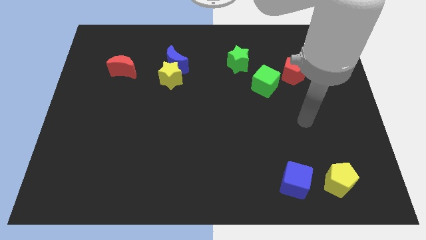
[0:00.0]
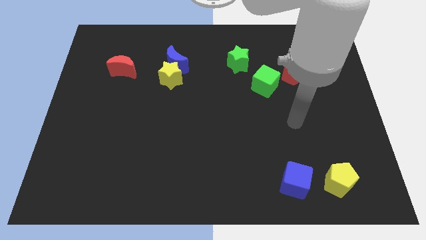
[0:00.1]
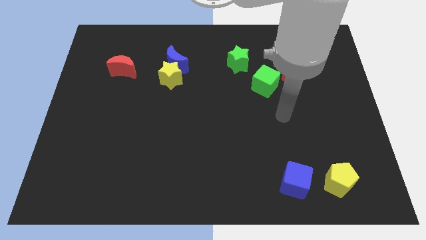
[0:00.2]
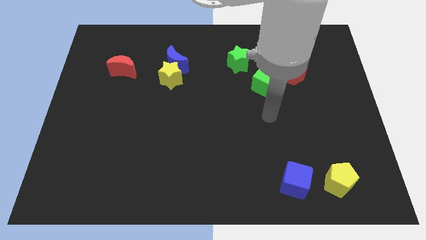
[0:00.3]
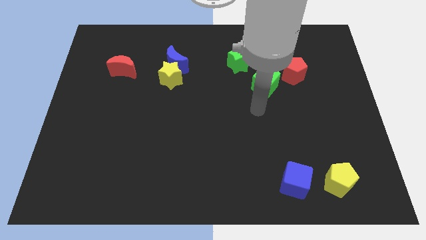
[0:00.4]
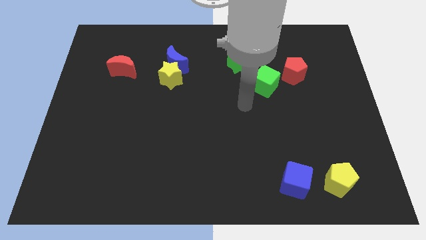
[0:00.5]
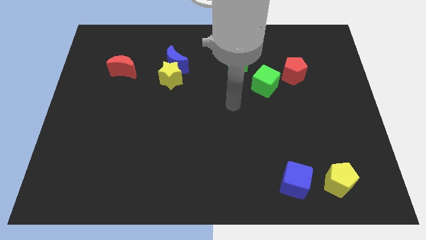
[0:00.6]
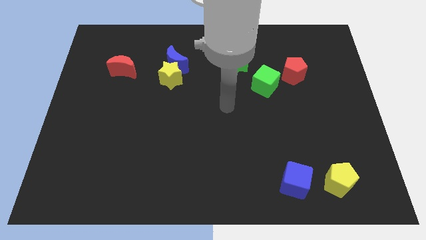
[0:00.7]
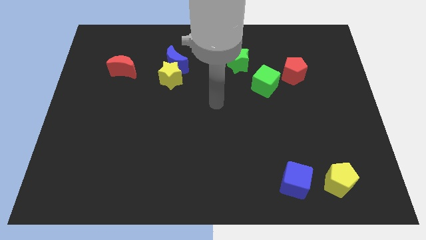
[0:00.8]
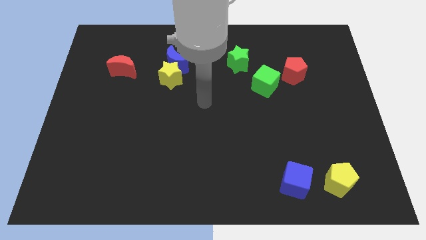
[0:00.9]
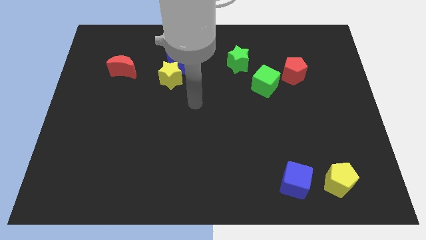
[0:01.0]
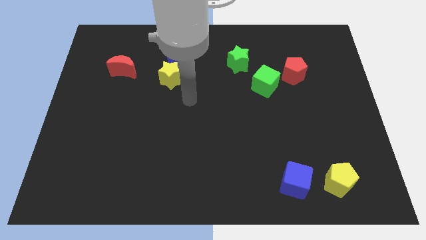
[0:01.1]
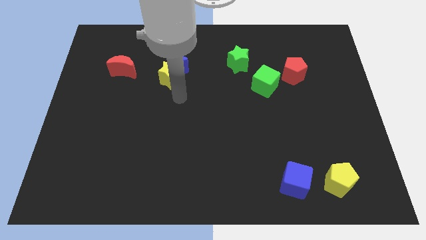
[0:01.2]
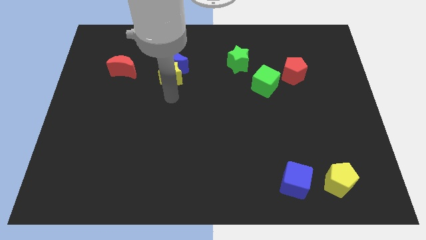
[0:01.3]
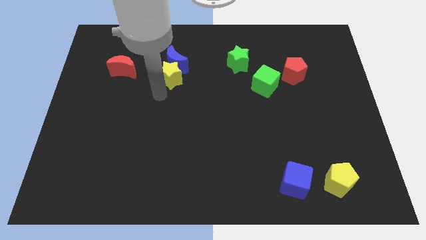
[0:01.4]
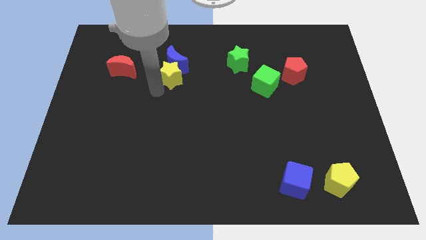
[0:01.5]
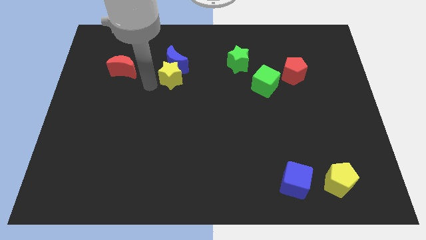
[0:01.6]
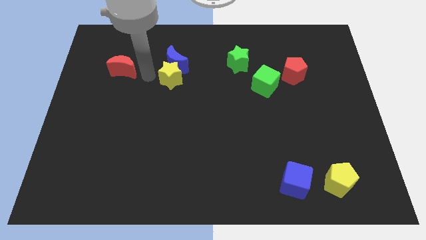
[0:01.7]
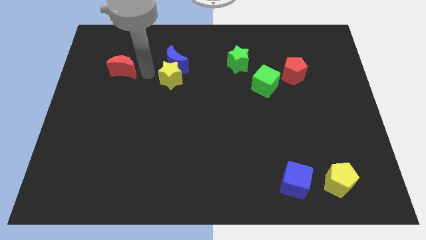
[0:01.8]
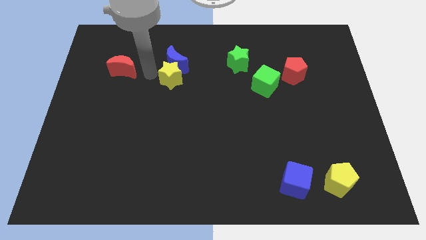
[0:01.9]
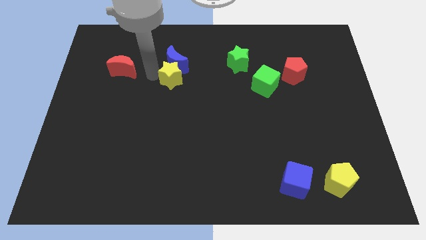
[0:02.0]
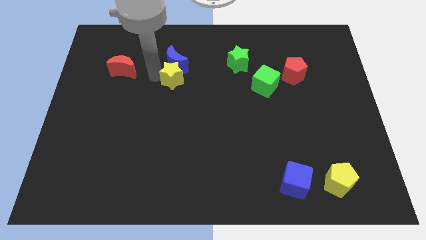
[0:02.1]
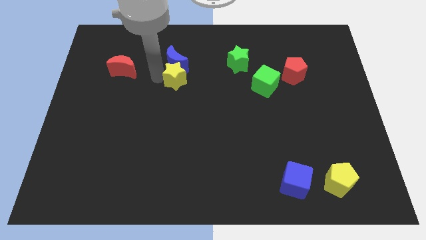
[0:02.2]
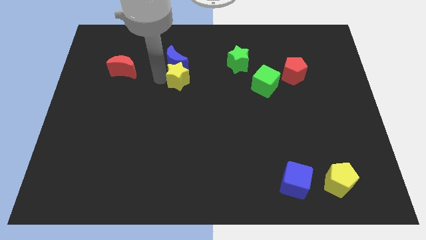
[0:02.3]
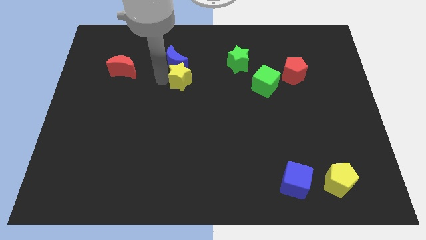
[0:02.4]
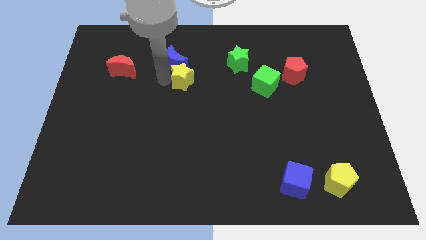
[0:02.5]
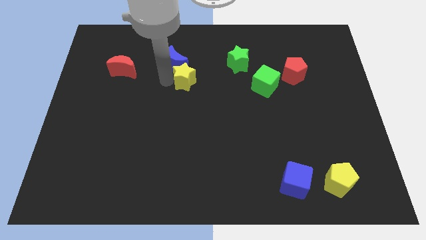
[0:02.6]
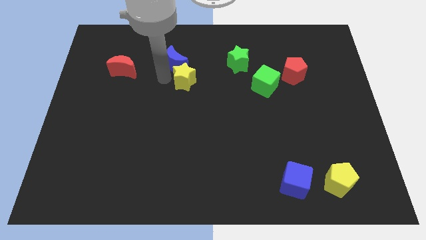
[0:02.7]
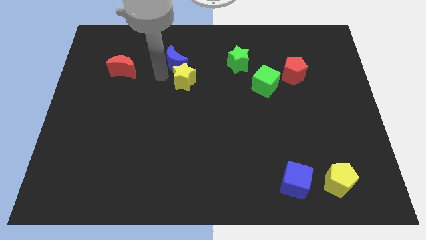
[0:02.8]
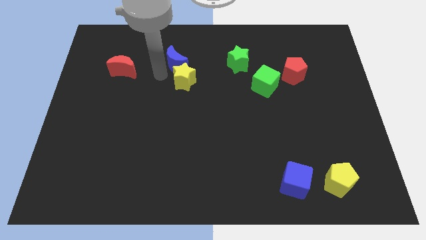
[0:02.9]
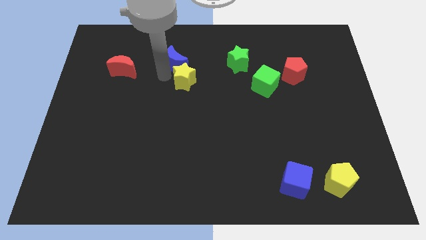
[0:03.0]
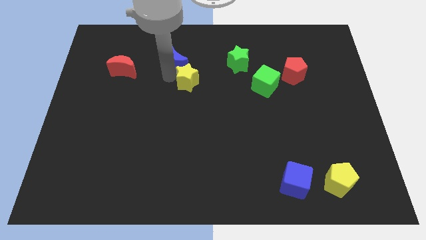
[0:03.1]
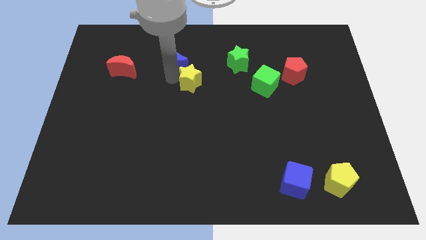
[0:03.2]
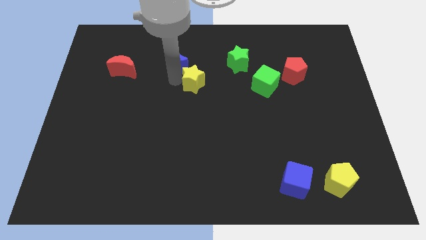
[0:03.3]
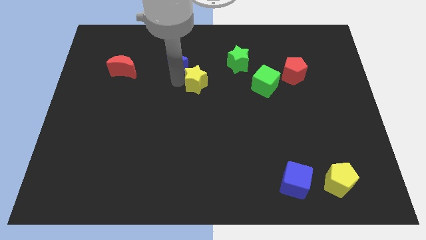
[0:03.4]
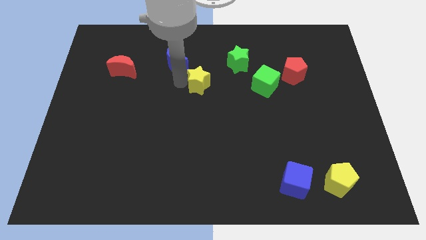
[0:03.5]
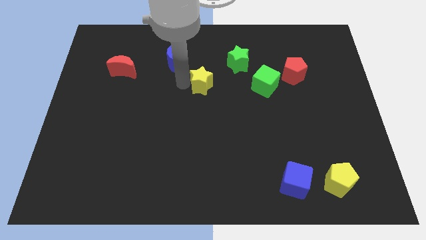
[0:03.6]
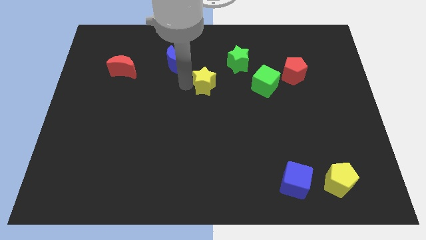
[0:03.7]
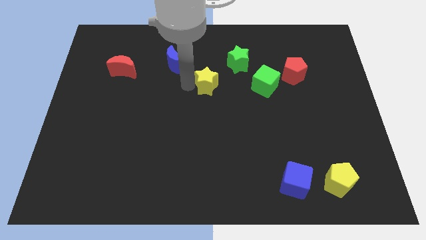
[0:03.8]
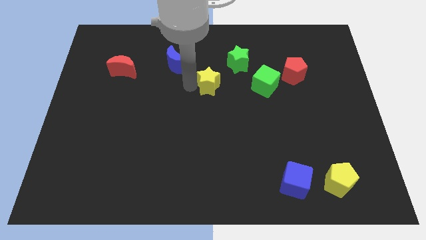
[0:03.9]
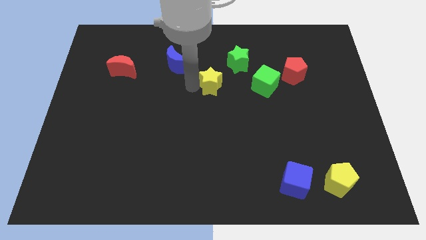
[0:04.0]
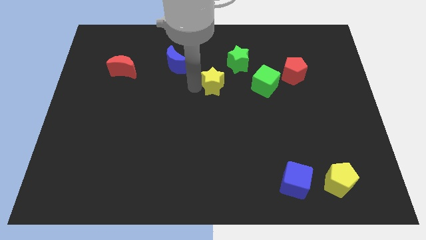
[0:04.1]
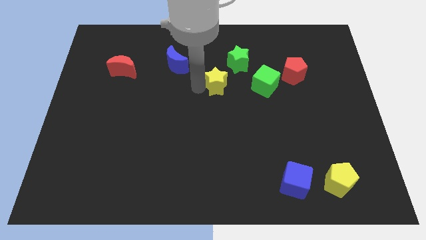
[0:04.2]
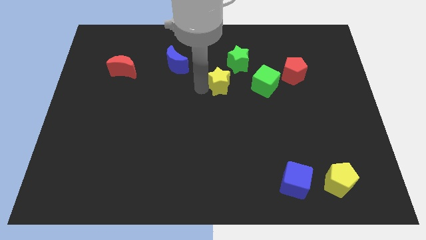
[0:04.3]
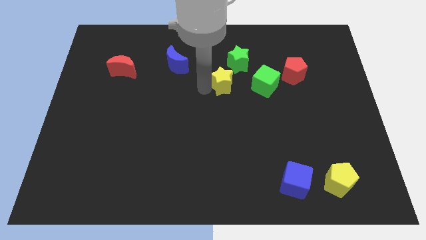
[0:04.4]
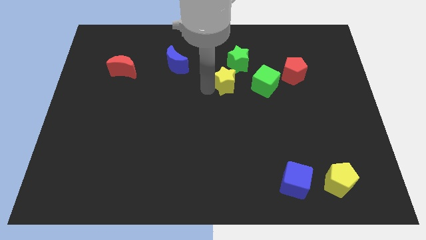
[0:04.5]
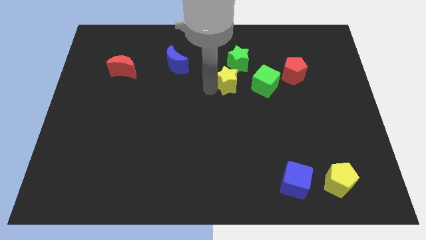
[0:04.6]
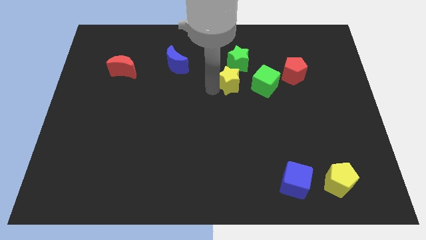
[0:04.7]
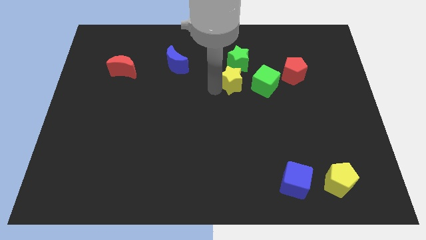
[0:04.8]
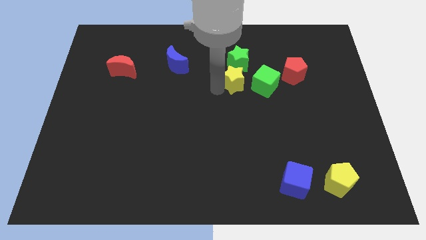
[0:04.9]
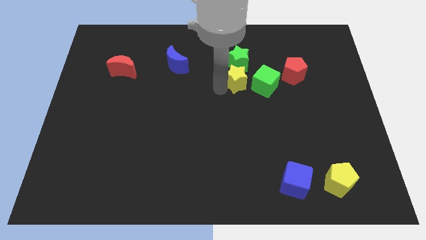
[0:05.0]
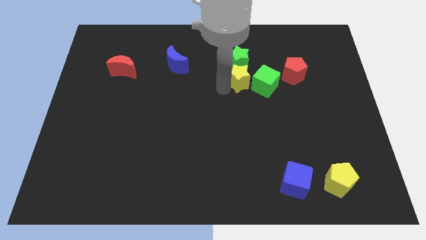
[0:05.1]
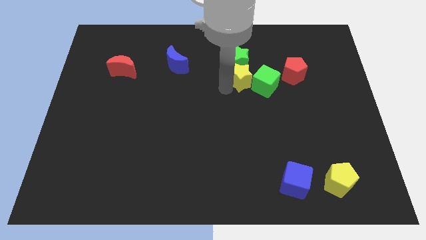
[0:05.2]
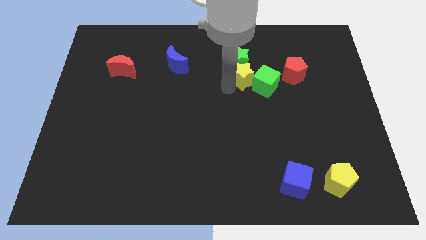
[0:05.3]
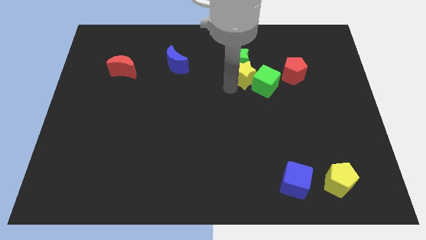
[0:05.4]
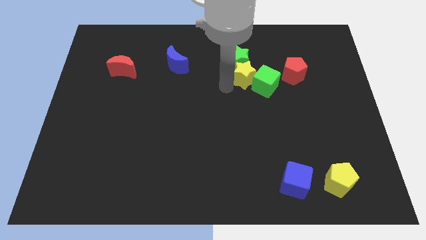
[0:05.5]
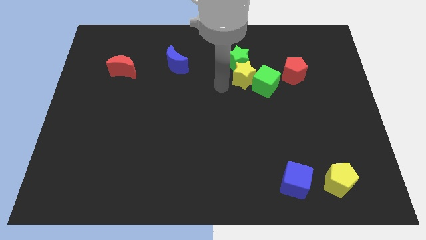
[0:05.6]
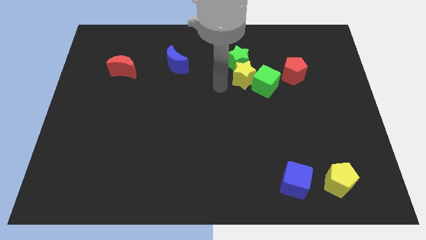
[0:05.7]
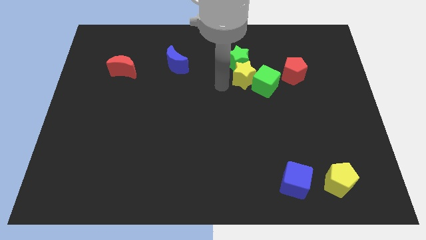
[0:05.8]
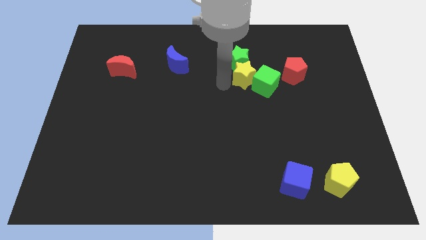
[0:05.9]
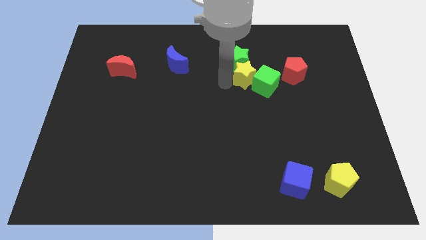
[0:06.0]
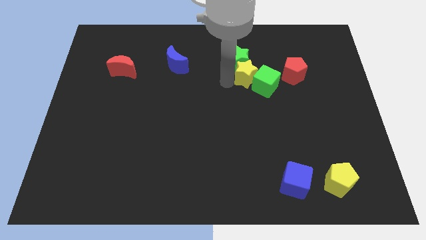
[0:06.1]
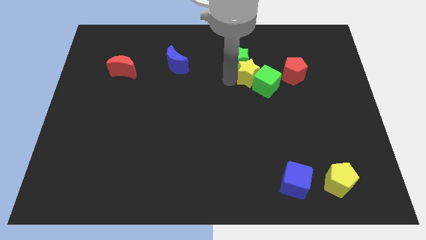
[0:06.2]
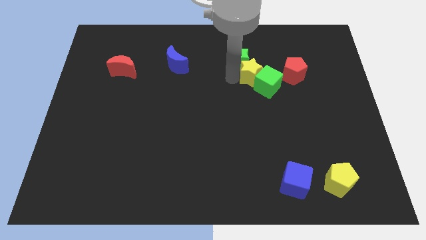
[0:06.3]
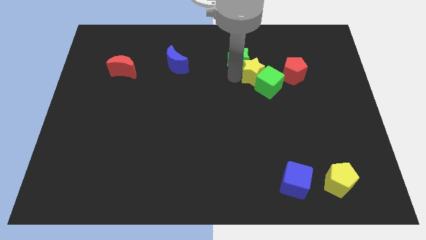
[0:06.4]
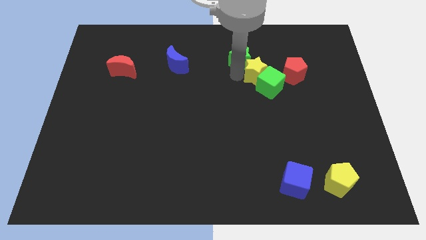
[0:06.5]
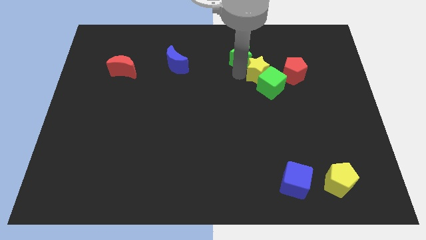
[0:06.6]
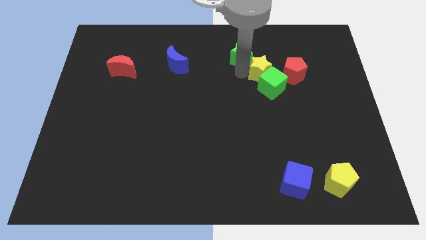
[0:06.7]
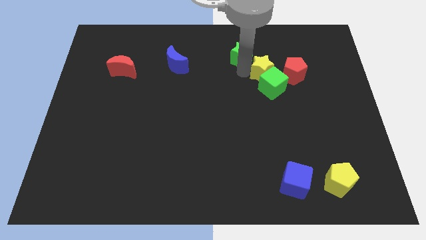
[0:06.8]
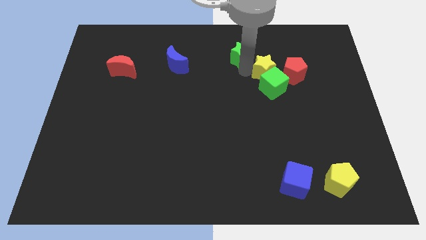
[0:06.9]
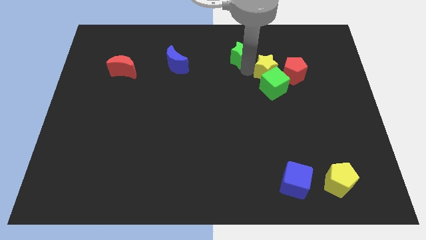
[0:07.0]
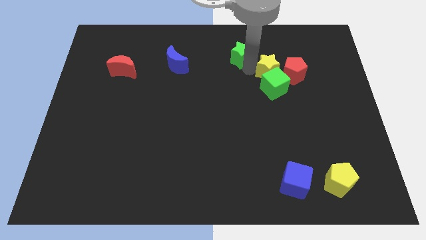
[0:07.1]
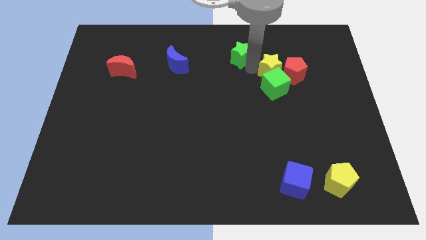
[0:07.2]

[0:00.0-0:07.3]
move the yellow star to the red pentagon
